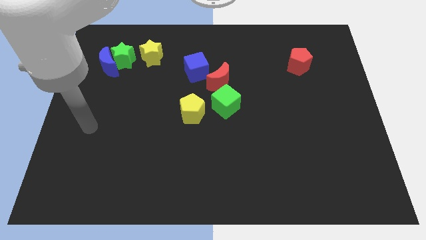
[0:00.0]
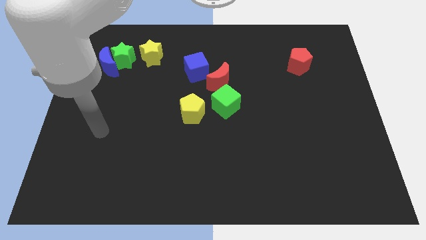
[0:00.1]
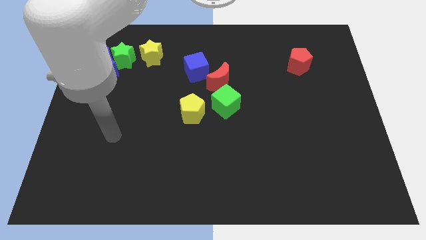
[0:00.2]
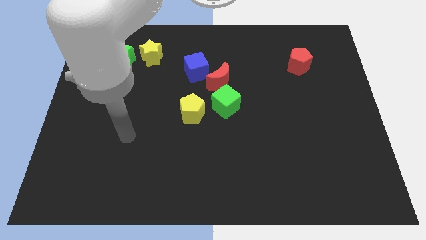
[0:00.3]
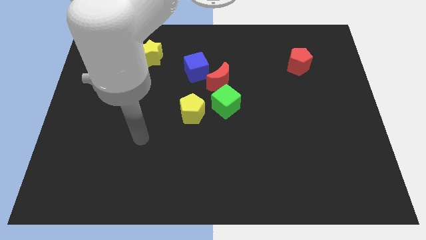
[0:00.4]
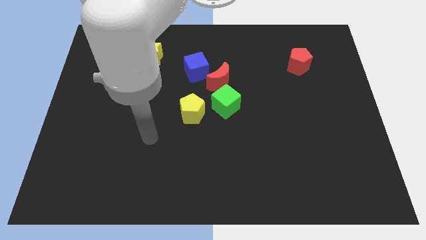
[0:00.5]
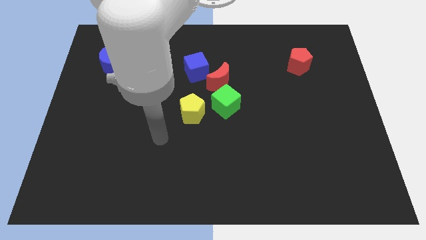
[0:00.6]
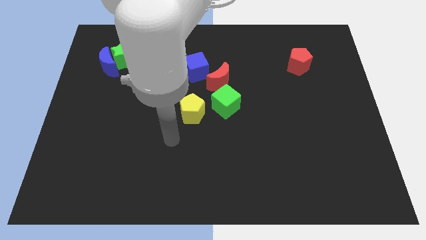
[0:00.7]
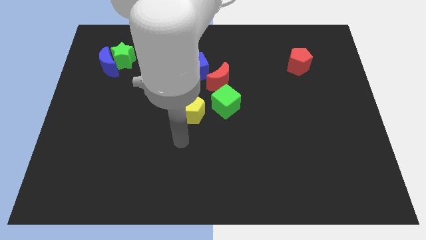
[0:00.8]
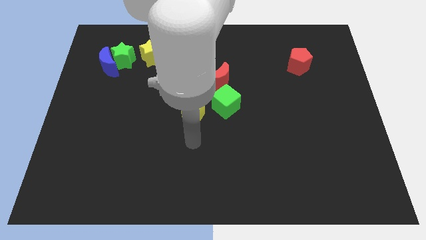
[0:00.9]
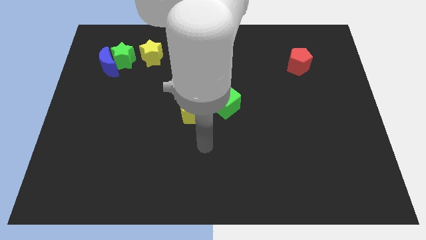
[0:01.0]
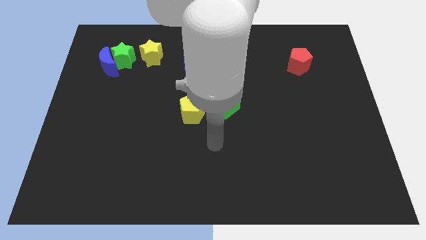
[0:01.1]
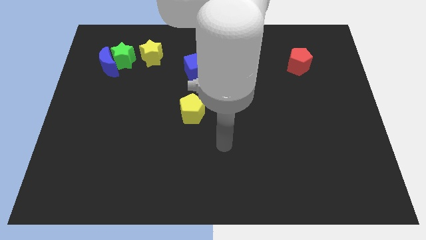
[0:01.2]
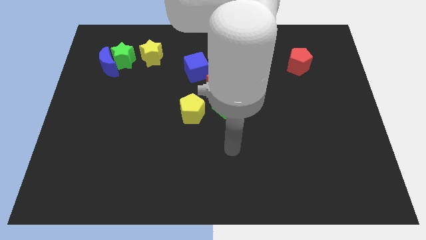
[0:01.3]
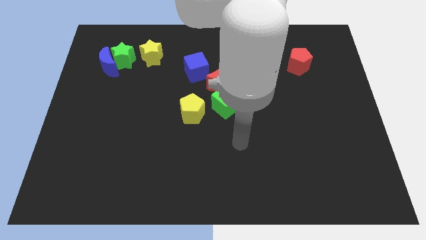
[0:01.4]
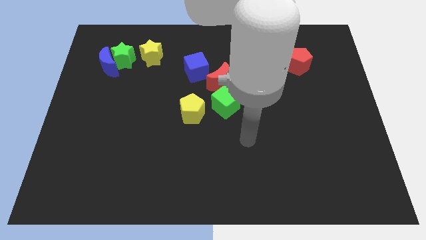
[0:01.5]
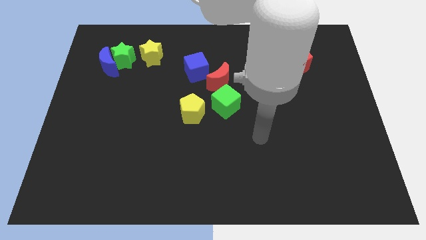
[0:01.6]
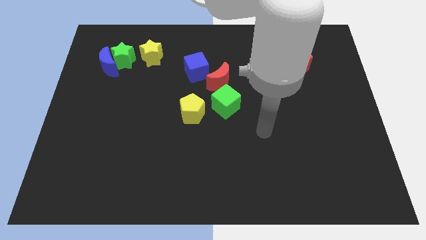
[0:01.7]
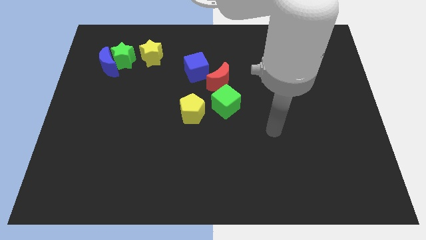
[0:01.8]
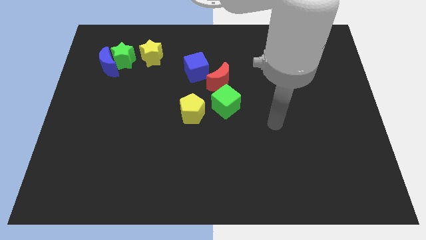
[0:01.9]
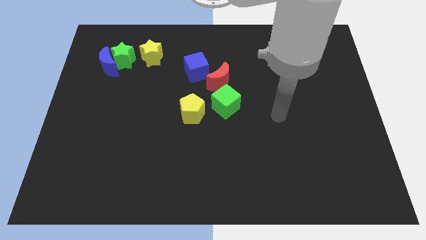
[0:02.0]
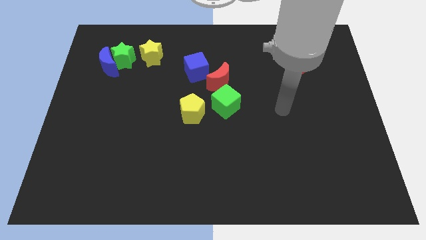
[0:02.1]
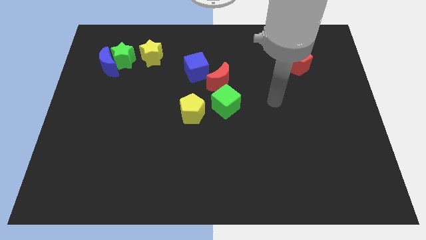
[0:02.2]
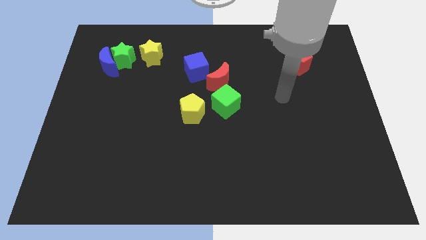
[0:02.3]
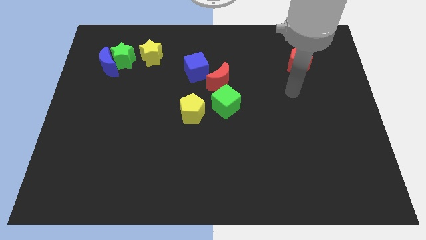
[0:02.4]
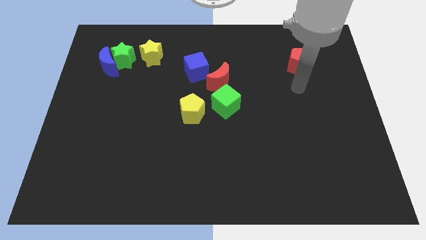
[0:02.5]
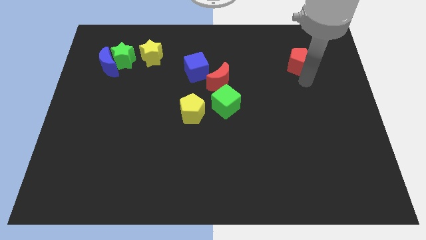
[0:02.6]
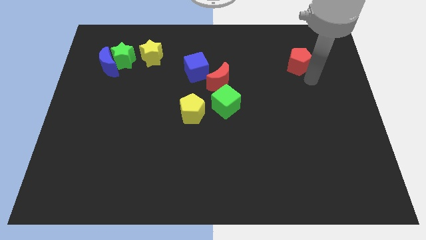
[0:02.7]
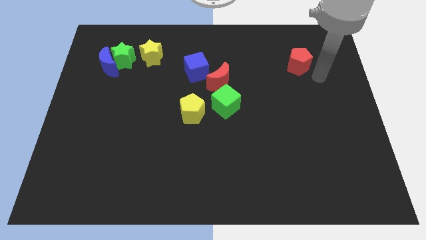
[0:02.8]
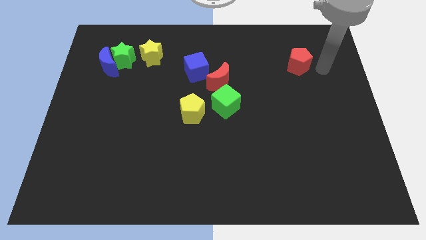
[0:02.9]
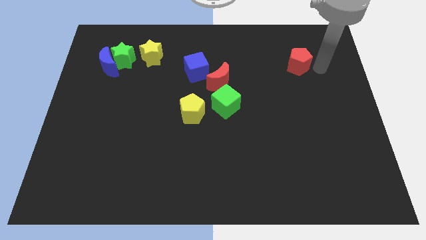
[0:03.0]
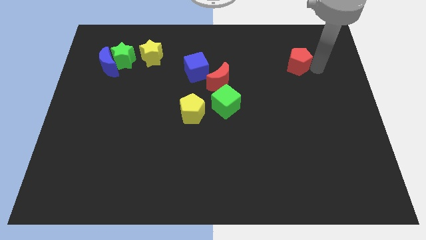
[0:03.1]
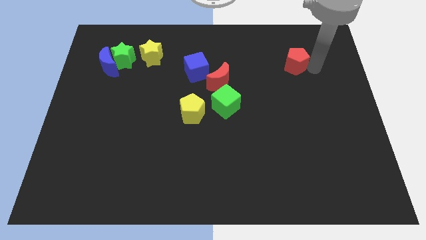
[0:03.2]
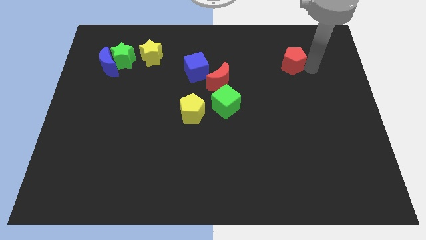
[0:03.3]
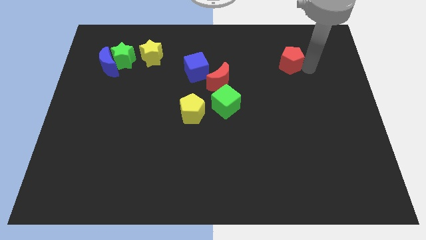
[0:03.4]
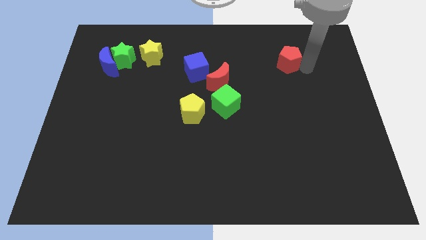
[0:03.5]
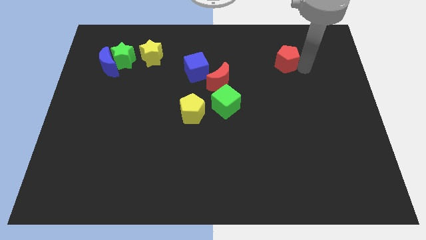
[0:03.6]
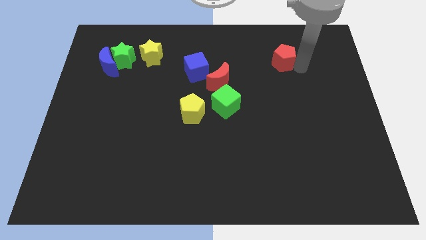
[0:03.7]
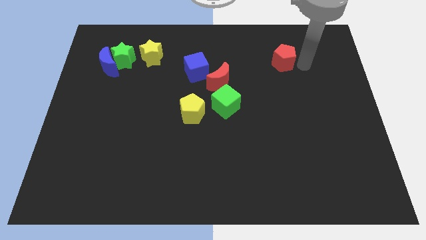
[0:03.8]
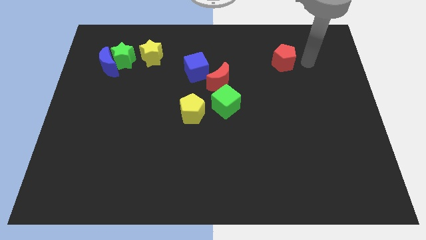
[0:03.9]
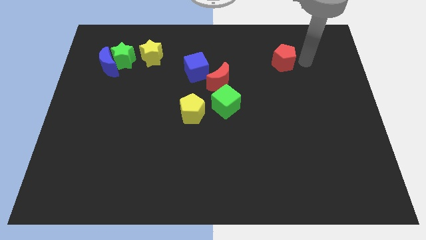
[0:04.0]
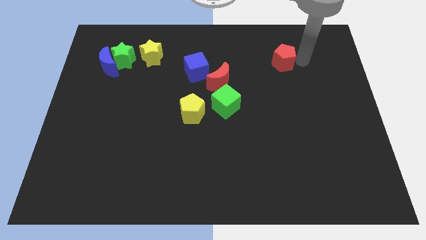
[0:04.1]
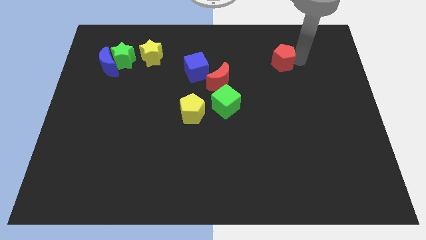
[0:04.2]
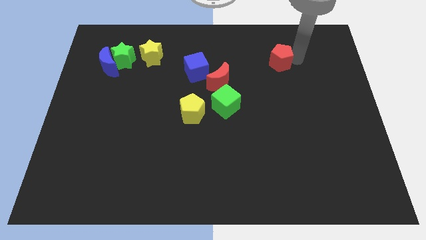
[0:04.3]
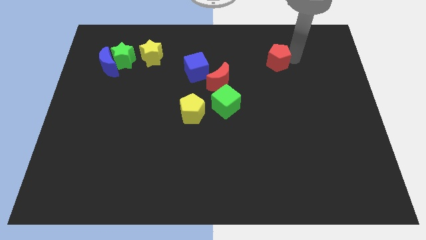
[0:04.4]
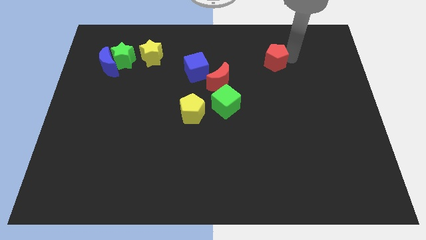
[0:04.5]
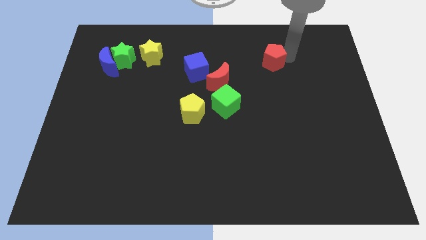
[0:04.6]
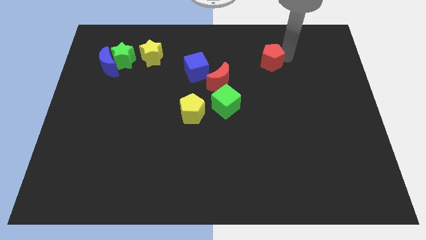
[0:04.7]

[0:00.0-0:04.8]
slide the red pentagon left a bit

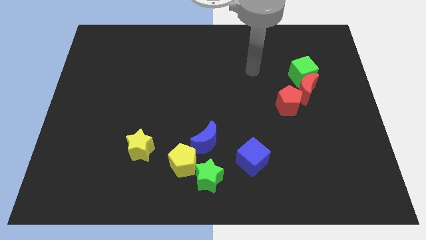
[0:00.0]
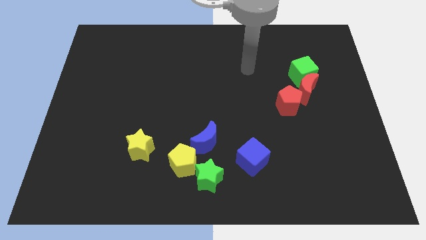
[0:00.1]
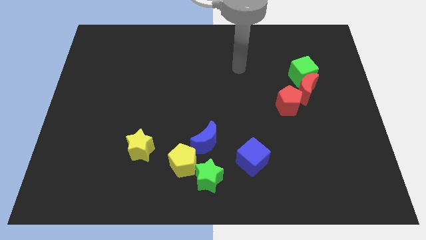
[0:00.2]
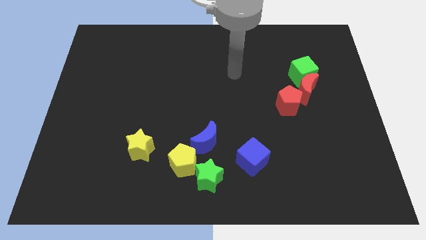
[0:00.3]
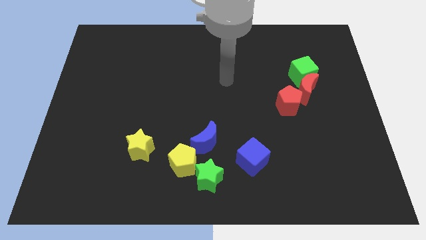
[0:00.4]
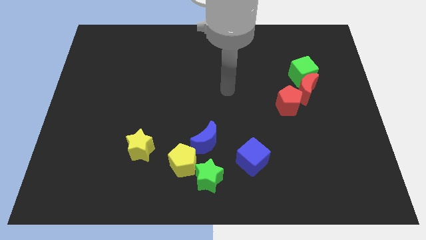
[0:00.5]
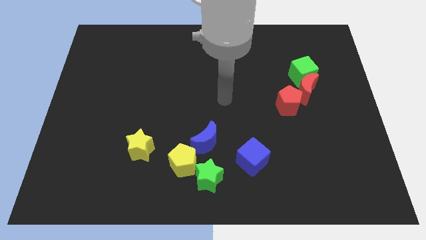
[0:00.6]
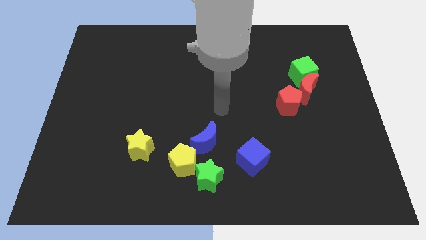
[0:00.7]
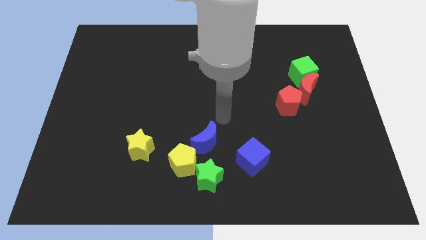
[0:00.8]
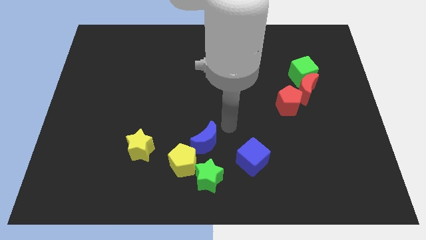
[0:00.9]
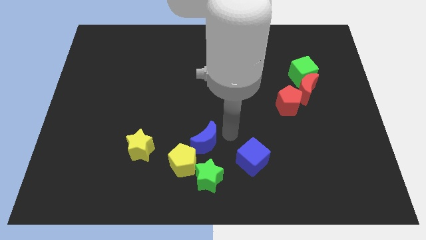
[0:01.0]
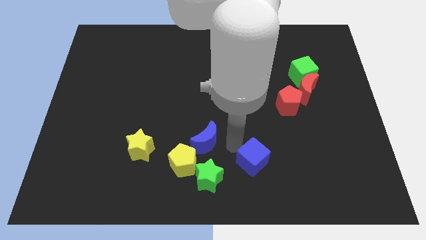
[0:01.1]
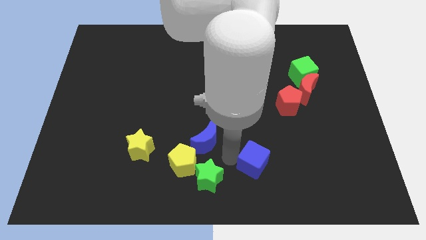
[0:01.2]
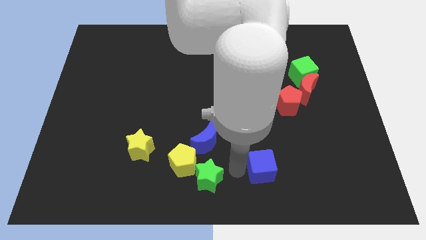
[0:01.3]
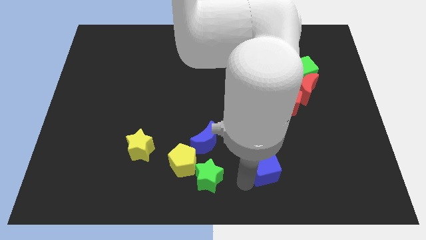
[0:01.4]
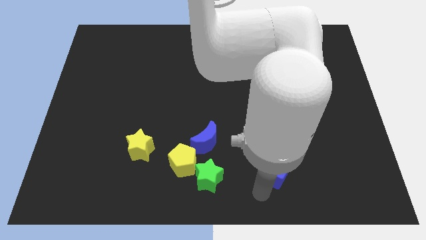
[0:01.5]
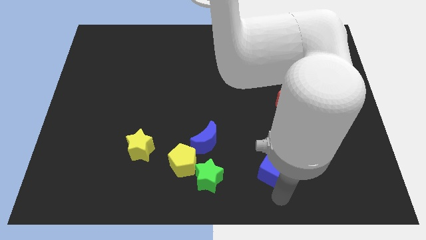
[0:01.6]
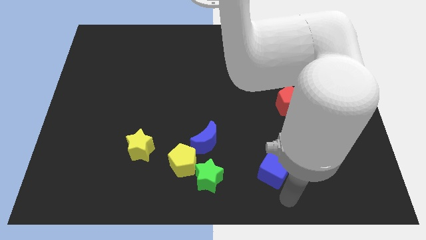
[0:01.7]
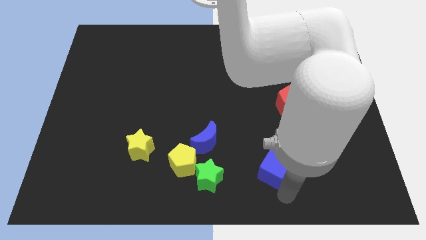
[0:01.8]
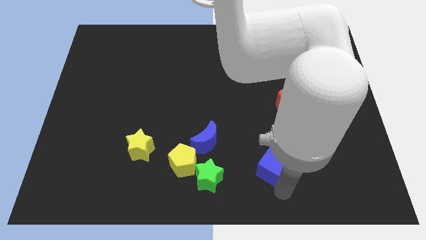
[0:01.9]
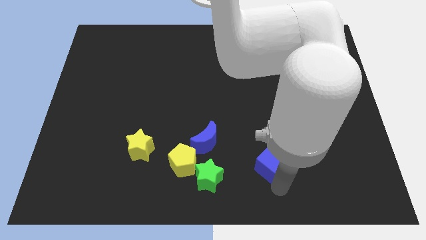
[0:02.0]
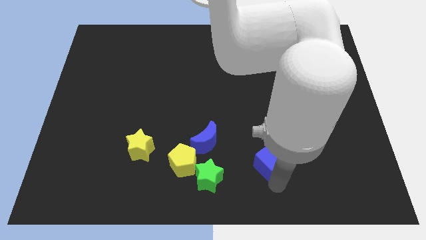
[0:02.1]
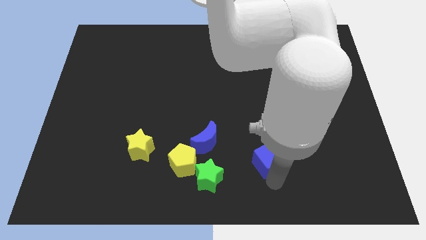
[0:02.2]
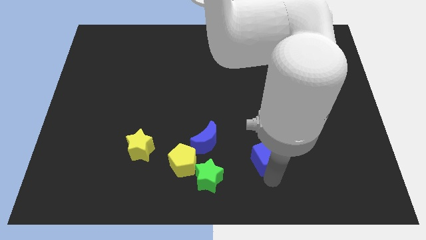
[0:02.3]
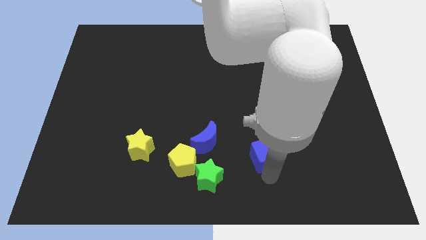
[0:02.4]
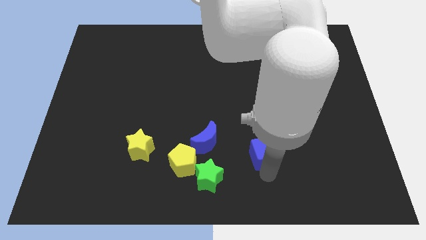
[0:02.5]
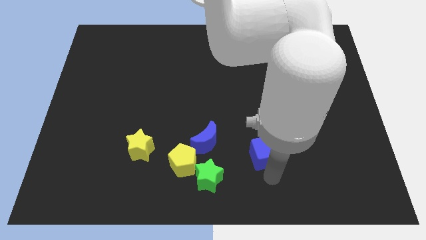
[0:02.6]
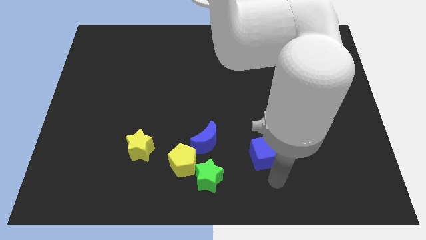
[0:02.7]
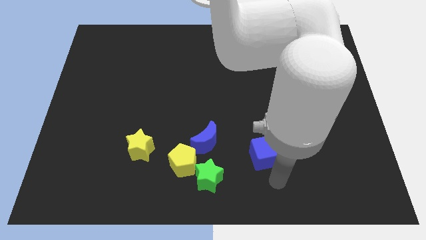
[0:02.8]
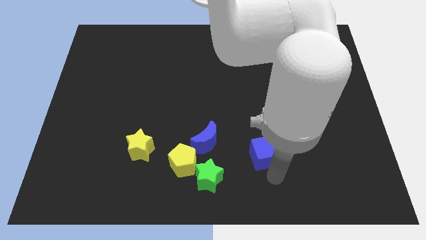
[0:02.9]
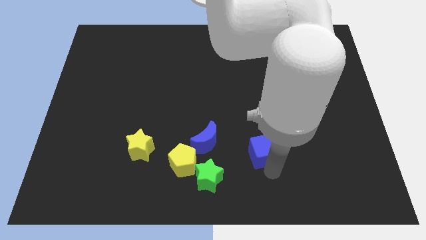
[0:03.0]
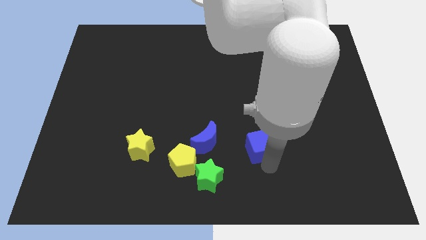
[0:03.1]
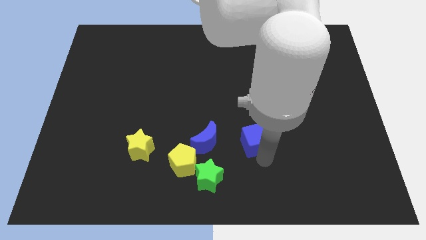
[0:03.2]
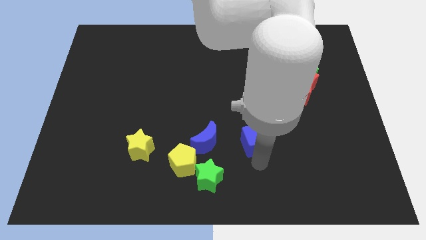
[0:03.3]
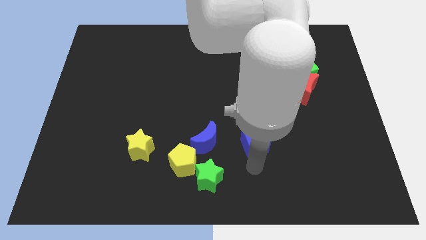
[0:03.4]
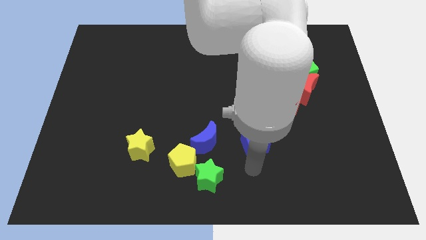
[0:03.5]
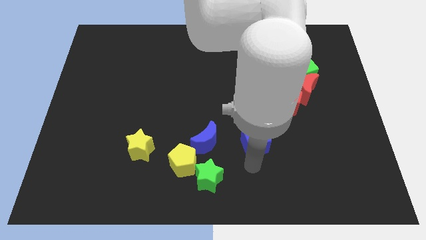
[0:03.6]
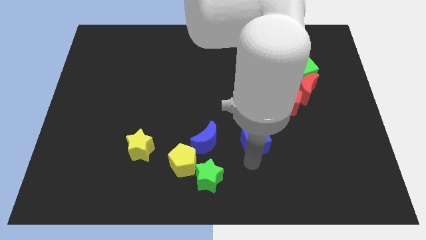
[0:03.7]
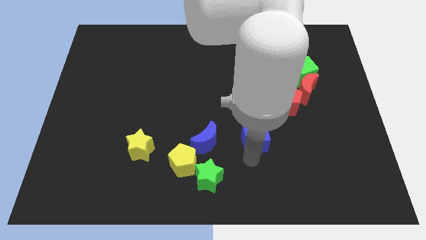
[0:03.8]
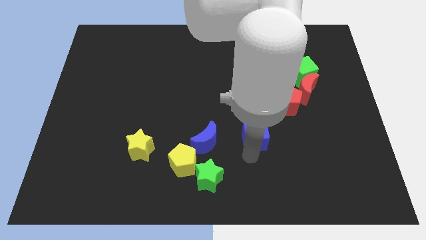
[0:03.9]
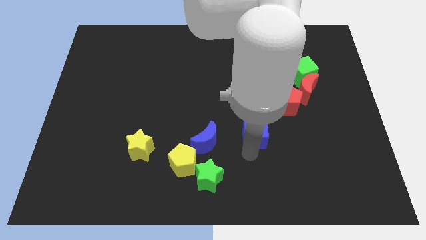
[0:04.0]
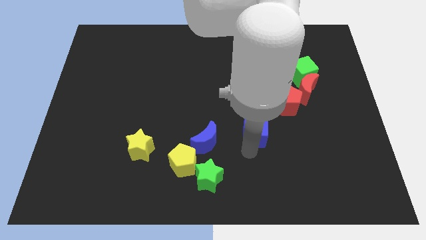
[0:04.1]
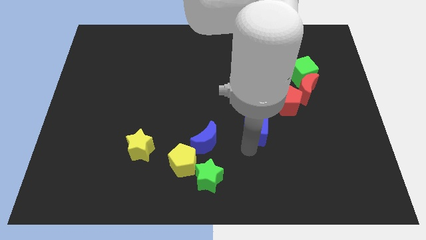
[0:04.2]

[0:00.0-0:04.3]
slide the blue cube upwards a little
